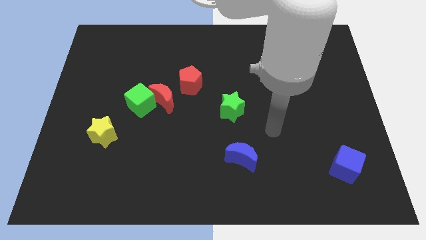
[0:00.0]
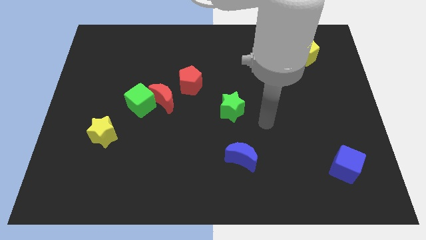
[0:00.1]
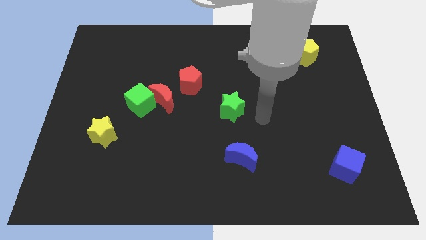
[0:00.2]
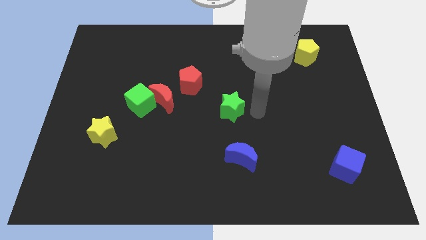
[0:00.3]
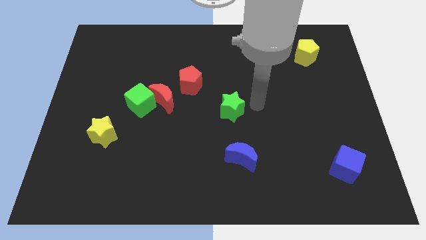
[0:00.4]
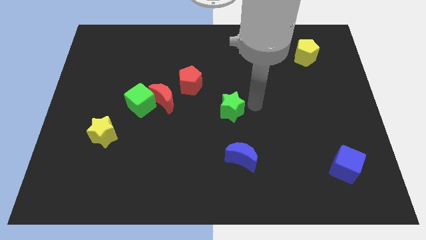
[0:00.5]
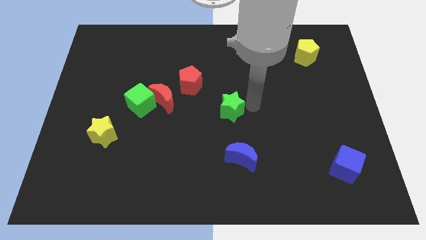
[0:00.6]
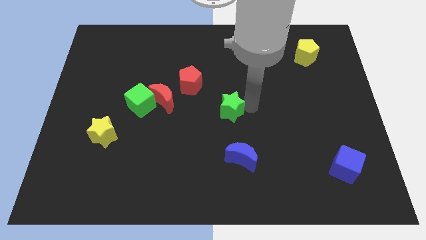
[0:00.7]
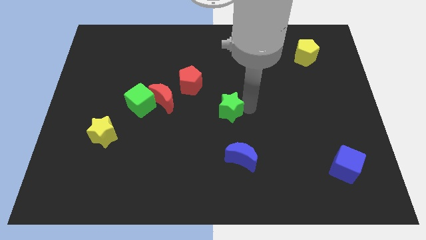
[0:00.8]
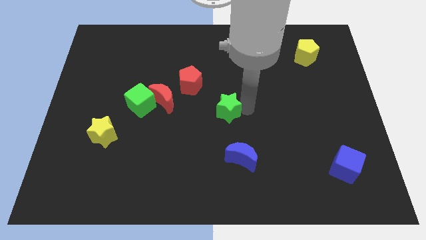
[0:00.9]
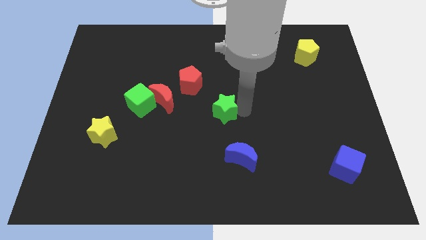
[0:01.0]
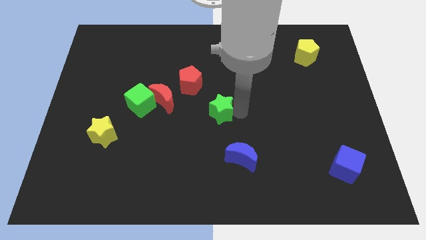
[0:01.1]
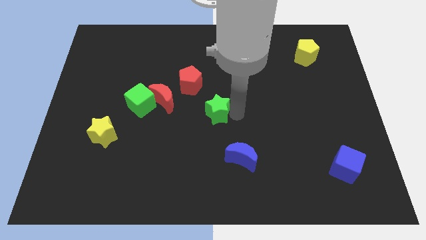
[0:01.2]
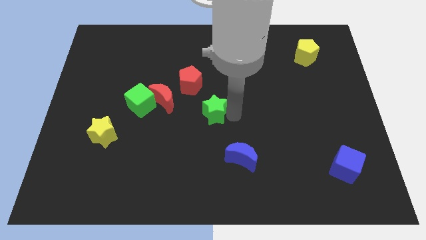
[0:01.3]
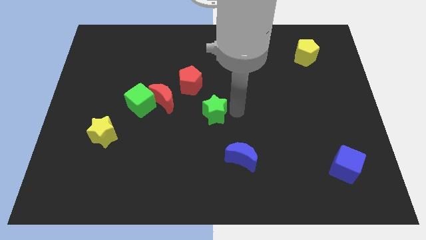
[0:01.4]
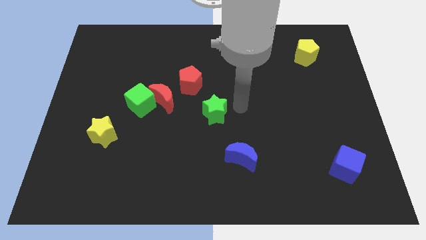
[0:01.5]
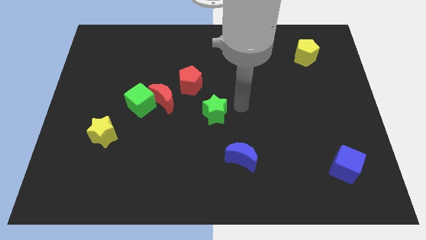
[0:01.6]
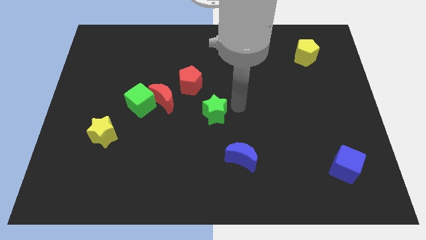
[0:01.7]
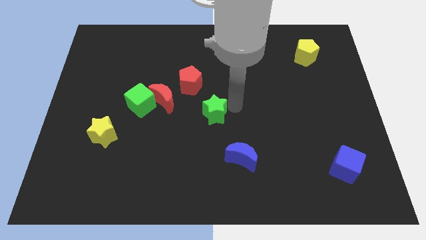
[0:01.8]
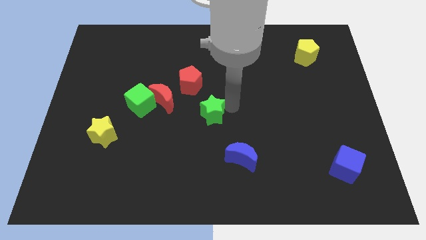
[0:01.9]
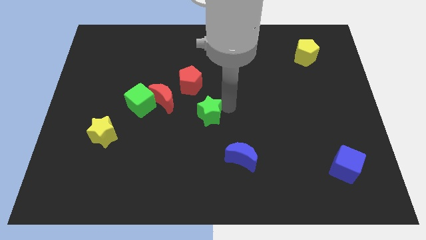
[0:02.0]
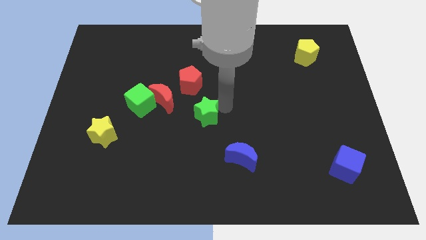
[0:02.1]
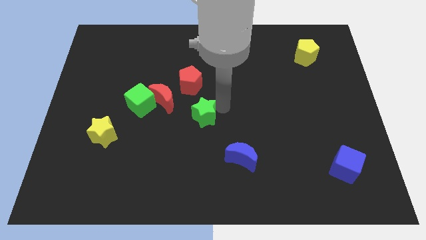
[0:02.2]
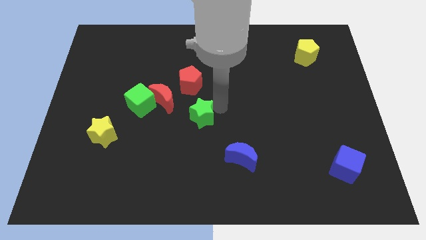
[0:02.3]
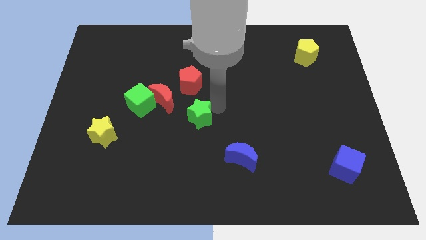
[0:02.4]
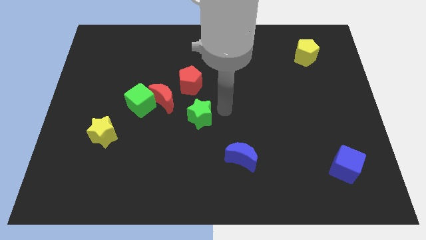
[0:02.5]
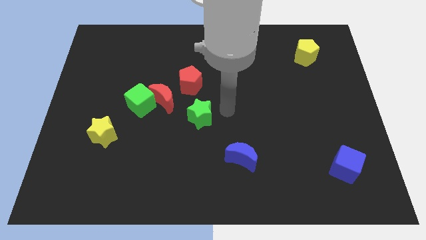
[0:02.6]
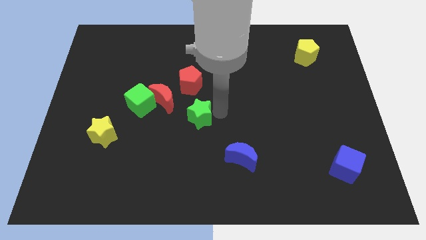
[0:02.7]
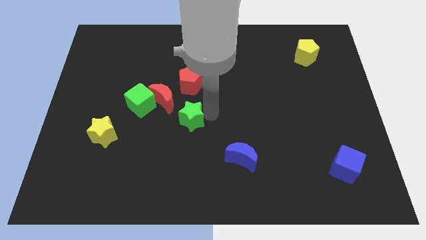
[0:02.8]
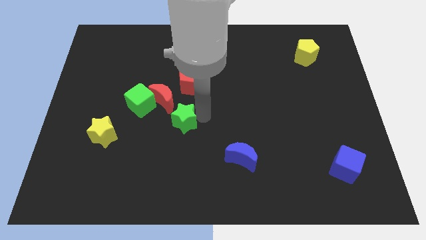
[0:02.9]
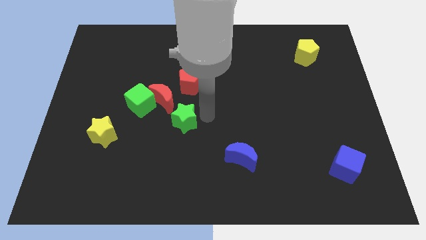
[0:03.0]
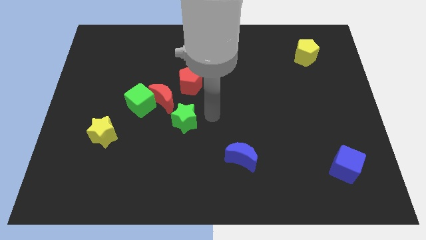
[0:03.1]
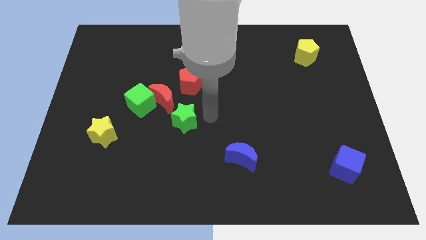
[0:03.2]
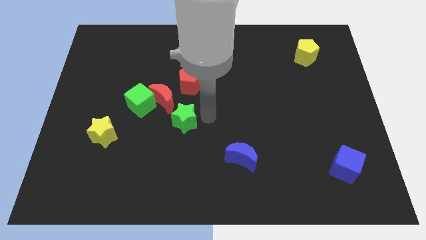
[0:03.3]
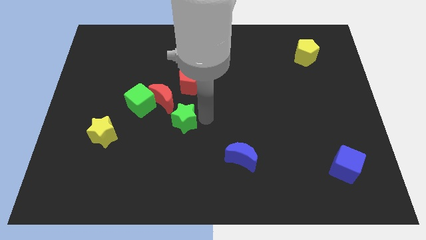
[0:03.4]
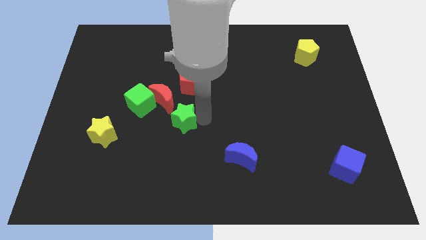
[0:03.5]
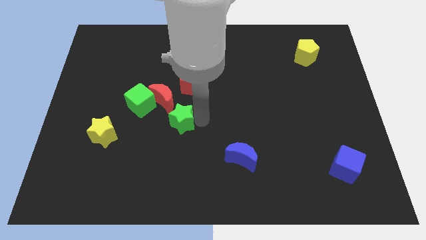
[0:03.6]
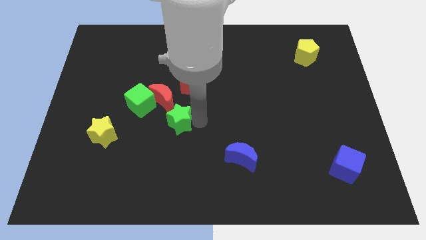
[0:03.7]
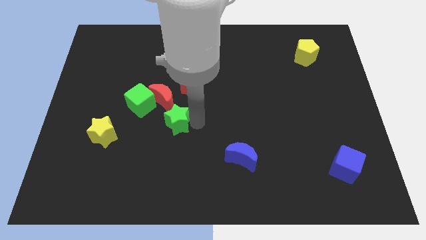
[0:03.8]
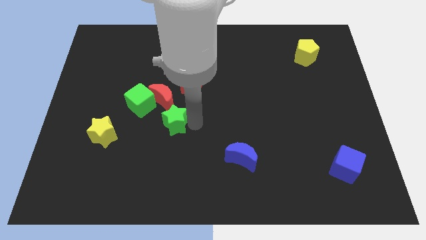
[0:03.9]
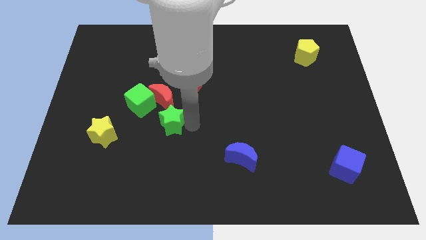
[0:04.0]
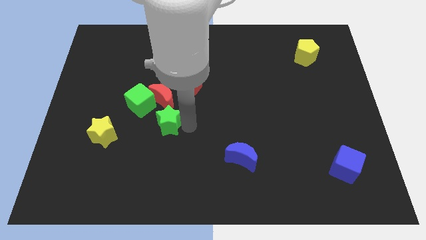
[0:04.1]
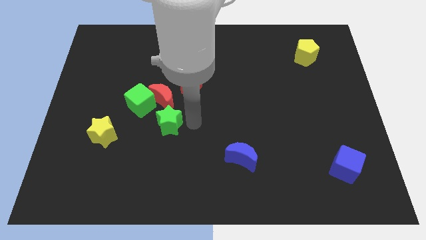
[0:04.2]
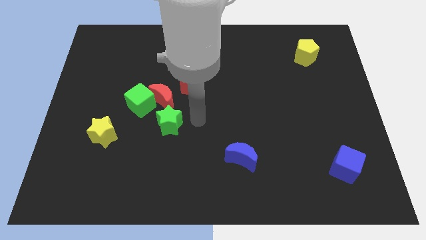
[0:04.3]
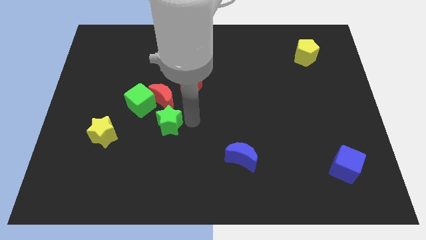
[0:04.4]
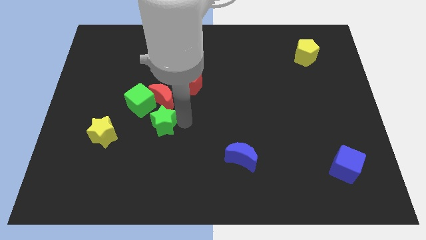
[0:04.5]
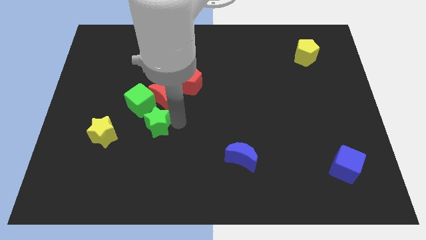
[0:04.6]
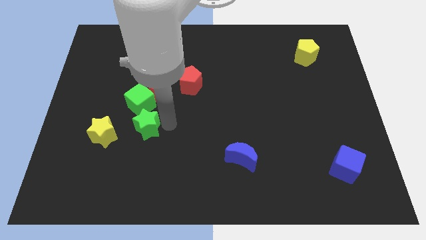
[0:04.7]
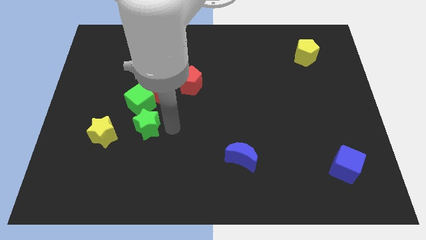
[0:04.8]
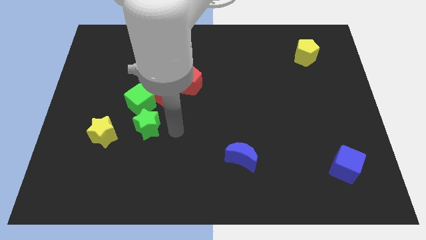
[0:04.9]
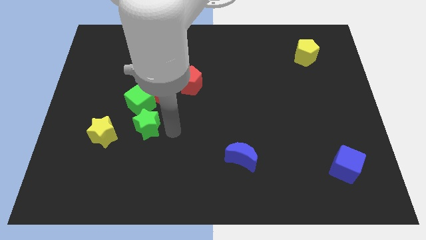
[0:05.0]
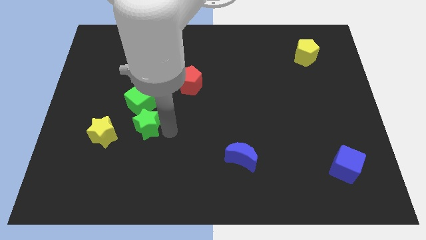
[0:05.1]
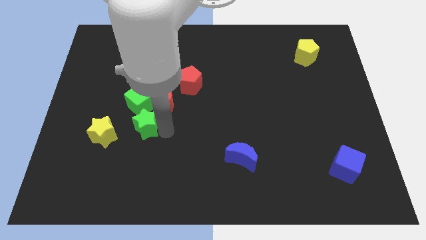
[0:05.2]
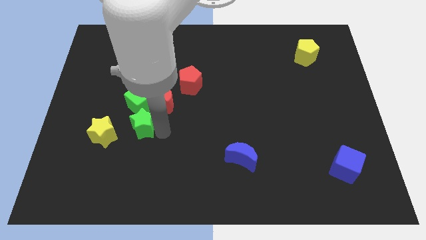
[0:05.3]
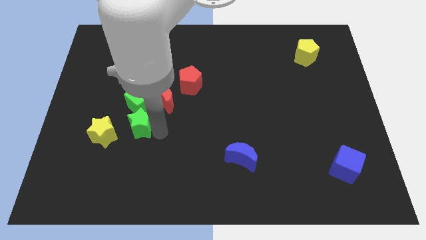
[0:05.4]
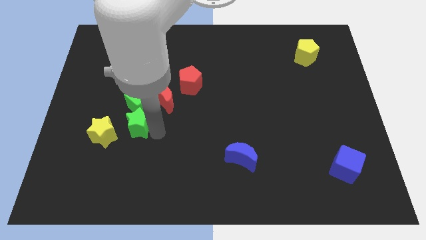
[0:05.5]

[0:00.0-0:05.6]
move the green star left

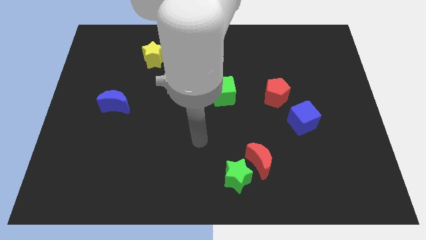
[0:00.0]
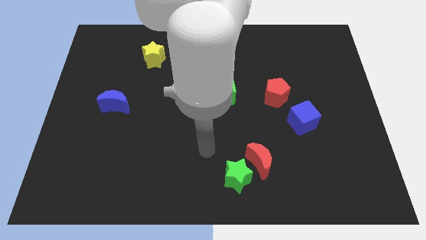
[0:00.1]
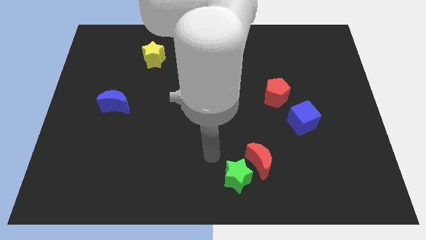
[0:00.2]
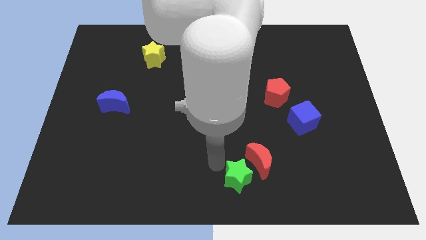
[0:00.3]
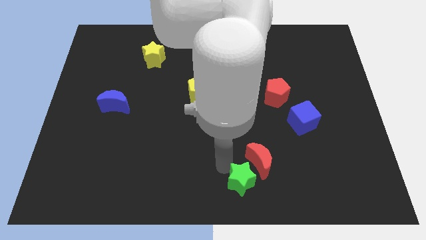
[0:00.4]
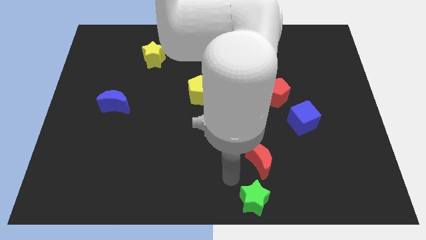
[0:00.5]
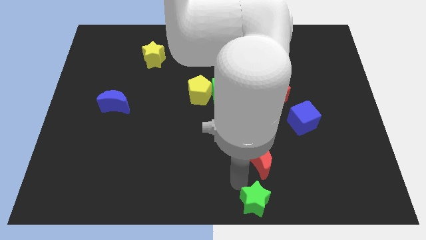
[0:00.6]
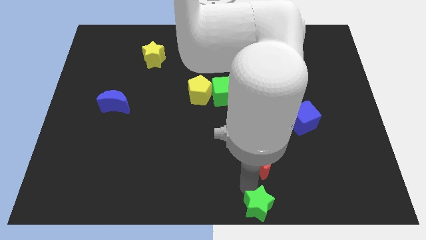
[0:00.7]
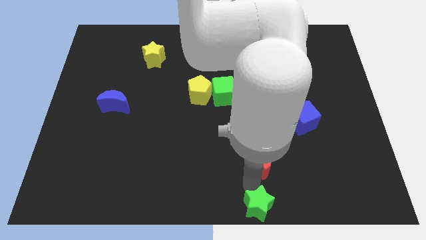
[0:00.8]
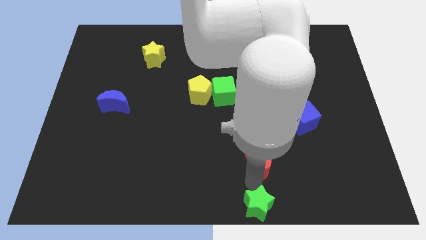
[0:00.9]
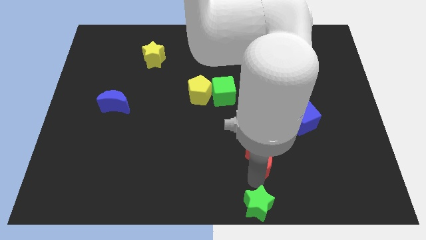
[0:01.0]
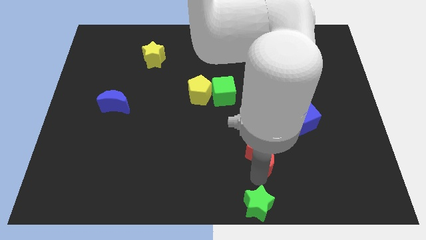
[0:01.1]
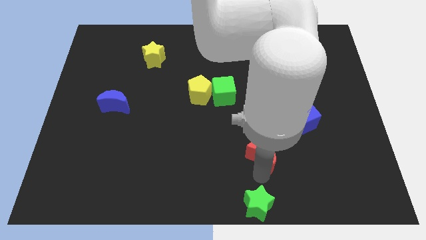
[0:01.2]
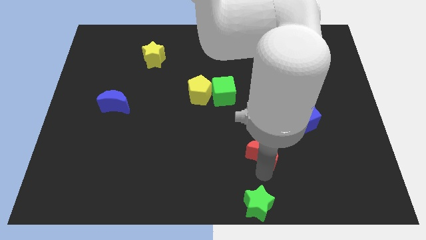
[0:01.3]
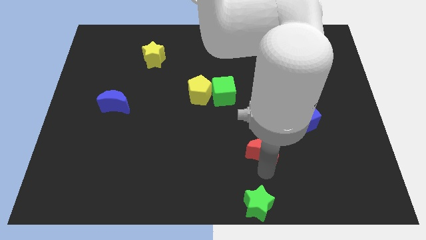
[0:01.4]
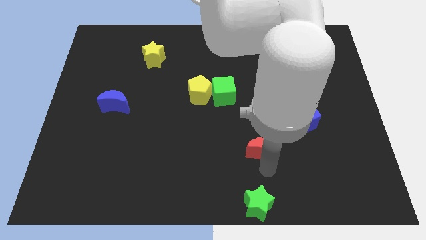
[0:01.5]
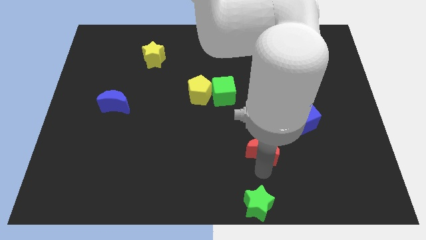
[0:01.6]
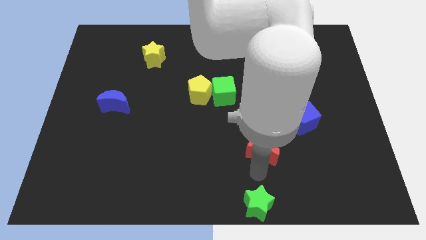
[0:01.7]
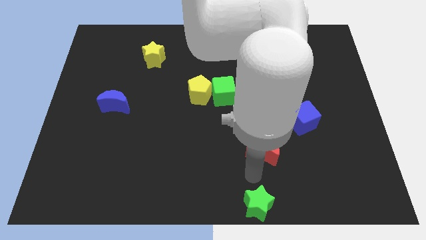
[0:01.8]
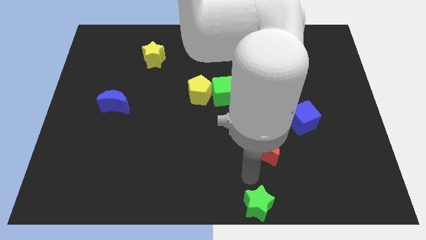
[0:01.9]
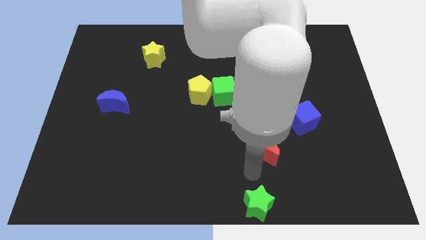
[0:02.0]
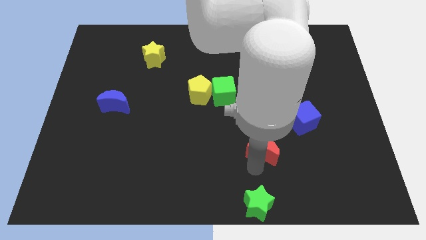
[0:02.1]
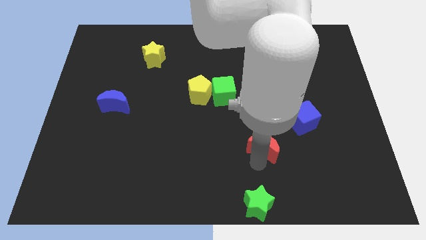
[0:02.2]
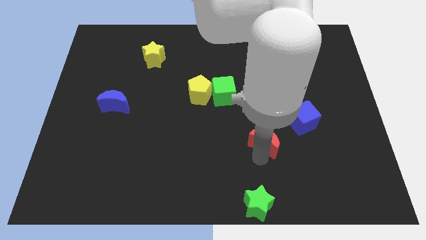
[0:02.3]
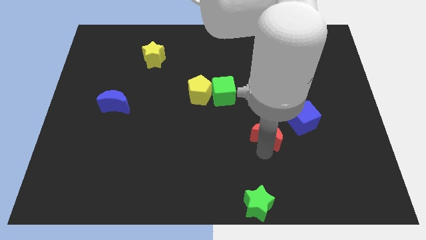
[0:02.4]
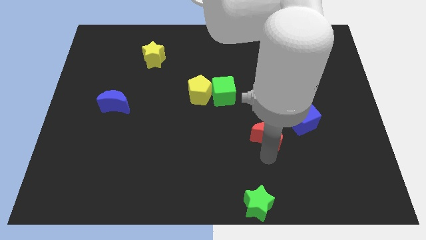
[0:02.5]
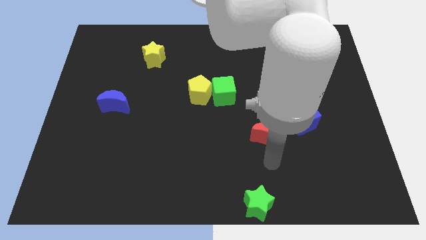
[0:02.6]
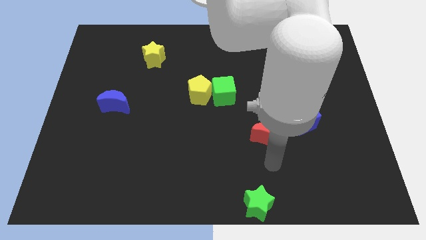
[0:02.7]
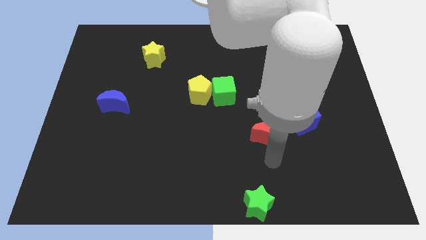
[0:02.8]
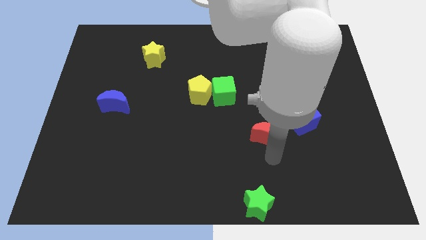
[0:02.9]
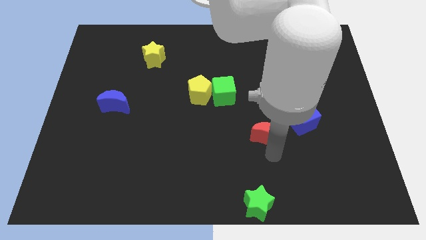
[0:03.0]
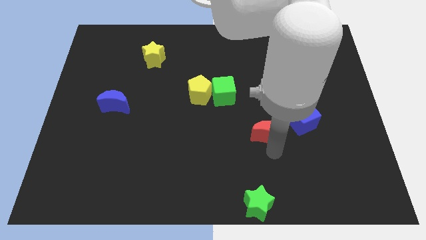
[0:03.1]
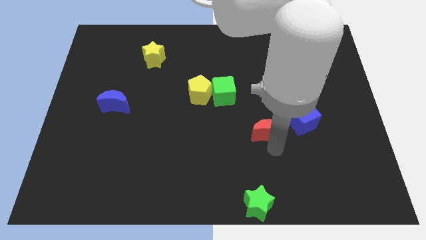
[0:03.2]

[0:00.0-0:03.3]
slightly move the red moon up
